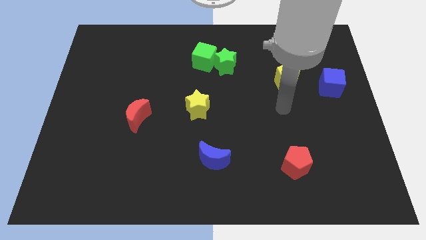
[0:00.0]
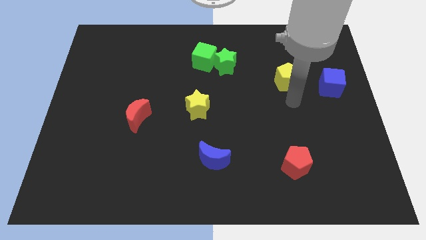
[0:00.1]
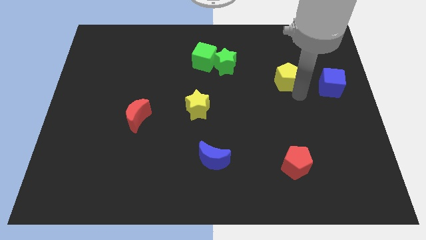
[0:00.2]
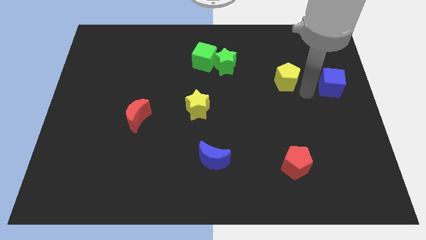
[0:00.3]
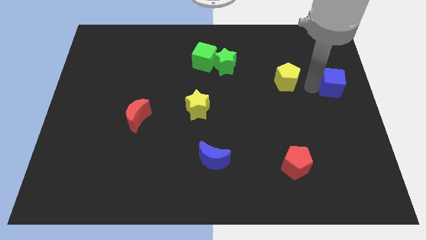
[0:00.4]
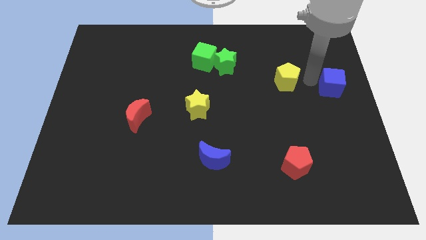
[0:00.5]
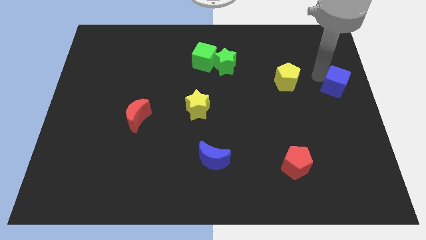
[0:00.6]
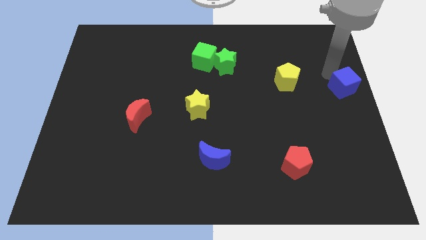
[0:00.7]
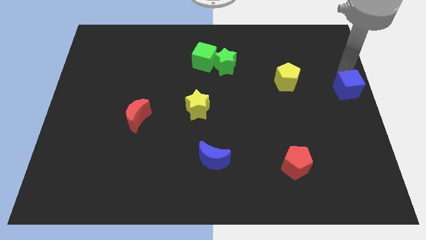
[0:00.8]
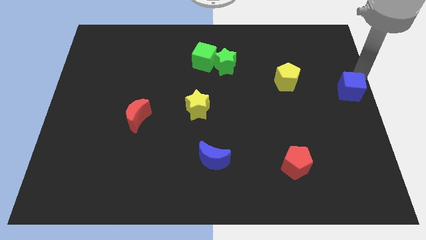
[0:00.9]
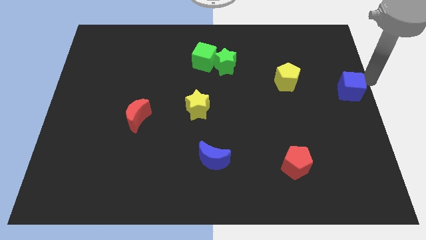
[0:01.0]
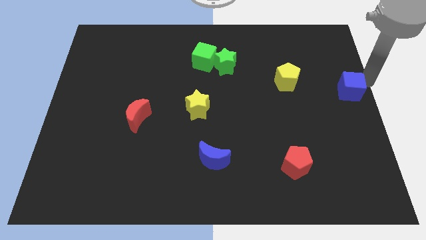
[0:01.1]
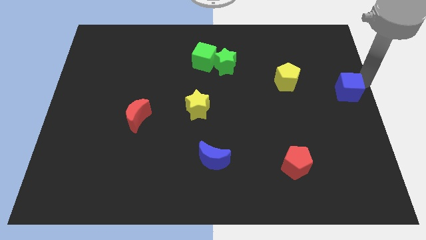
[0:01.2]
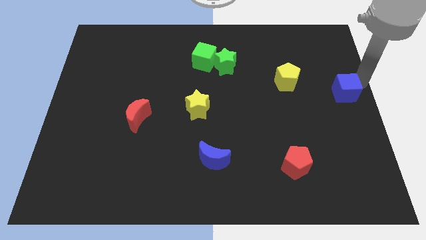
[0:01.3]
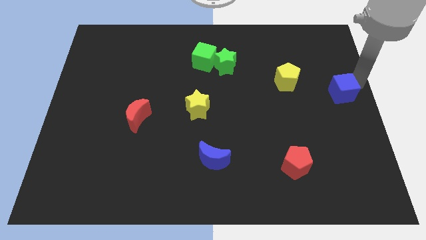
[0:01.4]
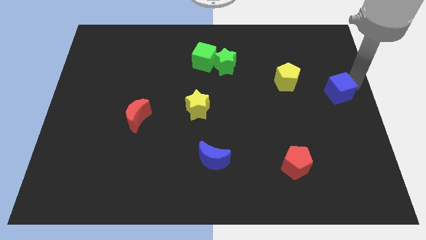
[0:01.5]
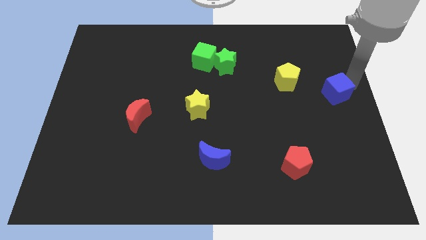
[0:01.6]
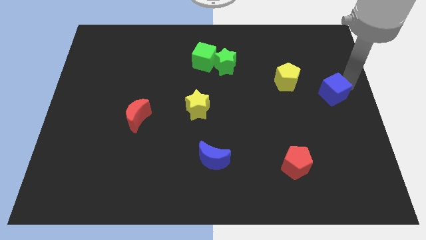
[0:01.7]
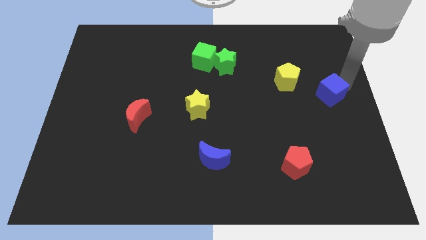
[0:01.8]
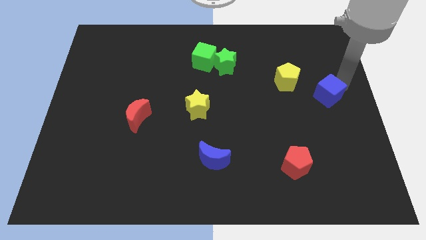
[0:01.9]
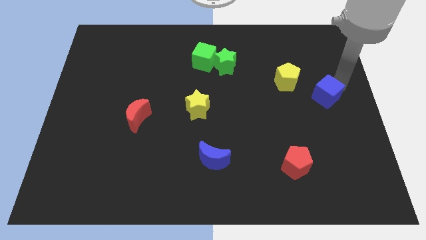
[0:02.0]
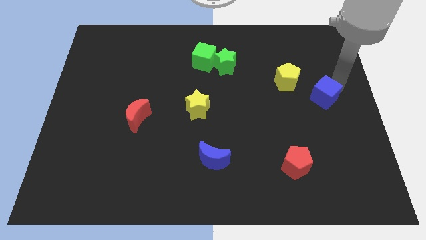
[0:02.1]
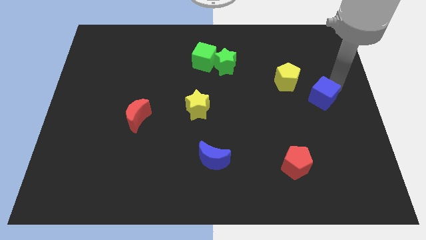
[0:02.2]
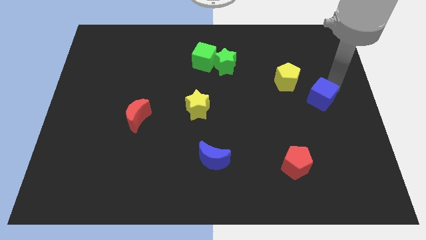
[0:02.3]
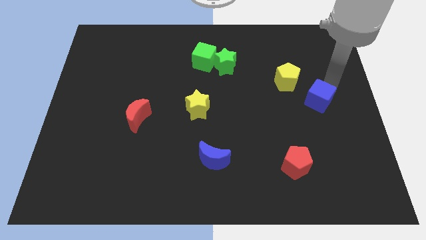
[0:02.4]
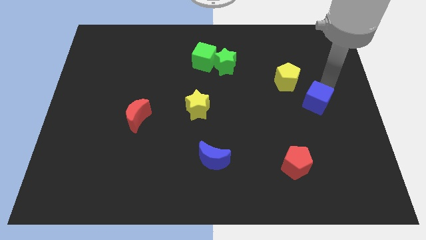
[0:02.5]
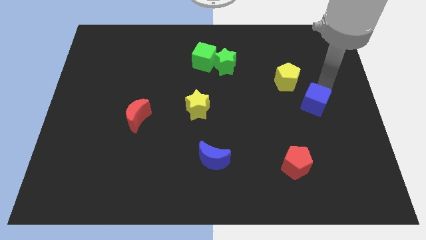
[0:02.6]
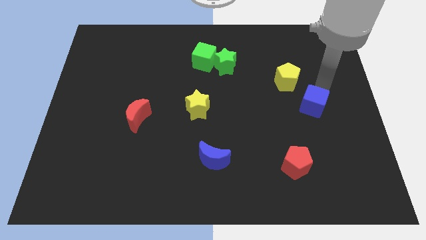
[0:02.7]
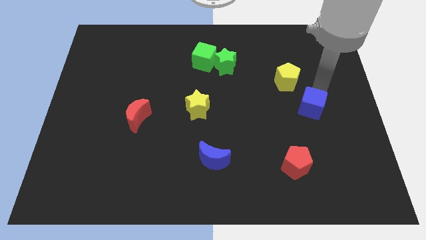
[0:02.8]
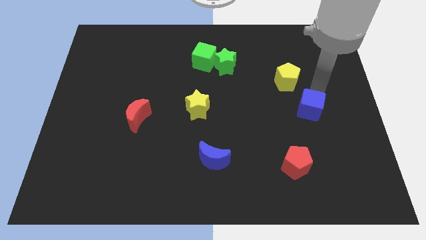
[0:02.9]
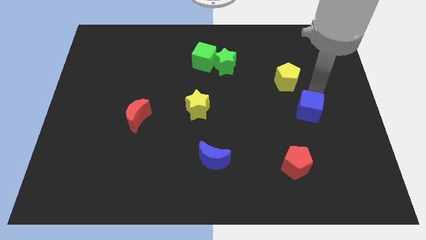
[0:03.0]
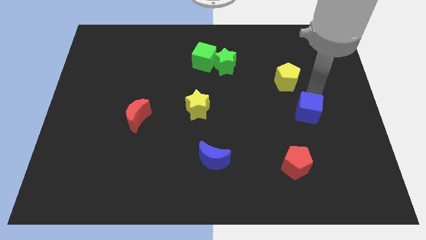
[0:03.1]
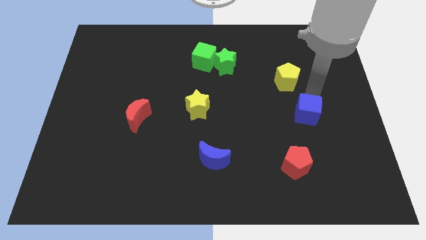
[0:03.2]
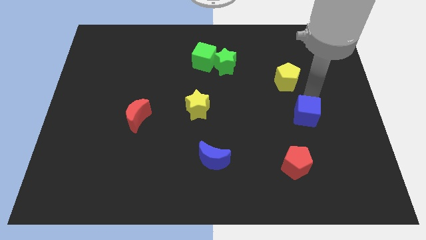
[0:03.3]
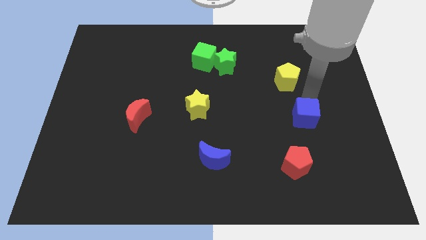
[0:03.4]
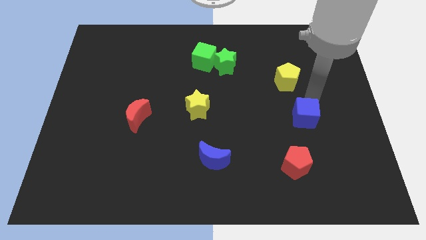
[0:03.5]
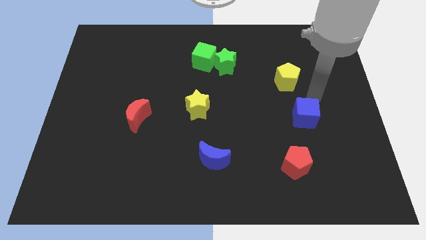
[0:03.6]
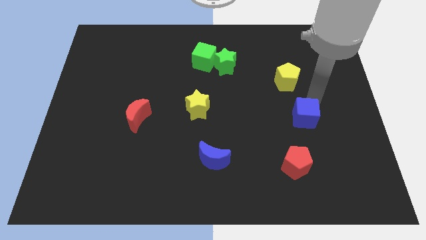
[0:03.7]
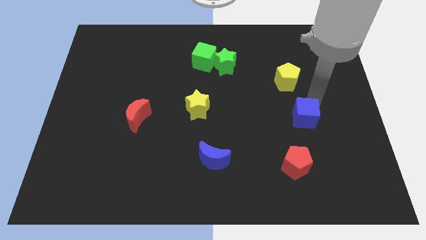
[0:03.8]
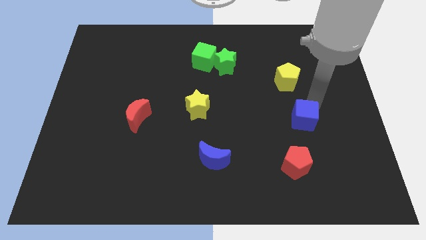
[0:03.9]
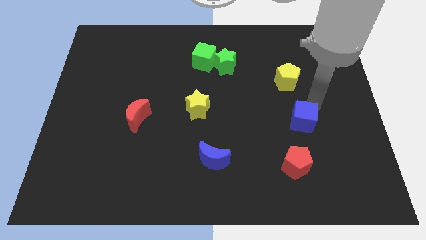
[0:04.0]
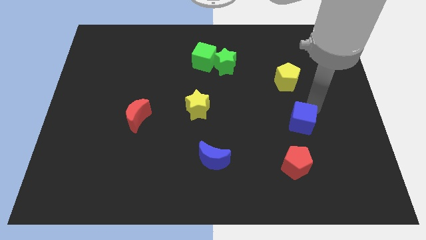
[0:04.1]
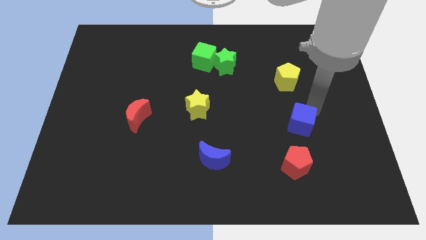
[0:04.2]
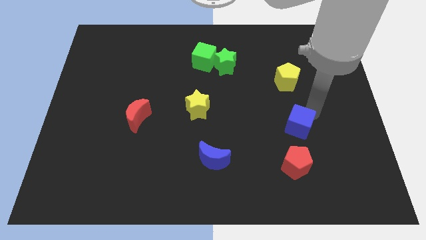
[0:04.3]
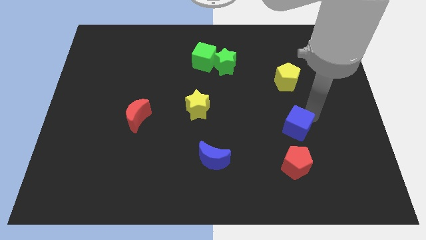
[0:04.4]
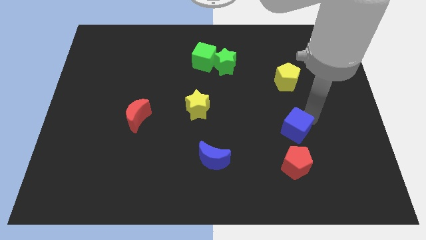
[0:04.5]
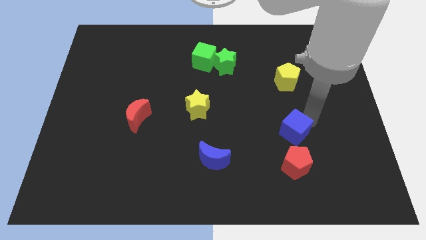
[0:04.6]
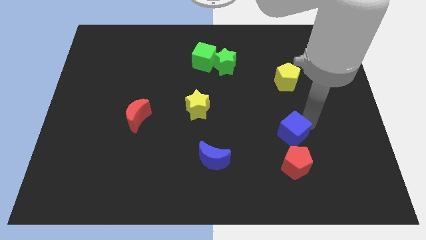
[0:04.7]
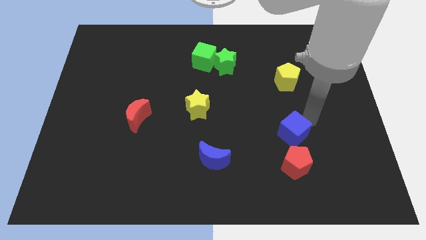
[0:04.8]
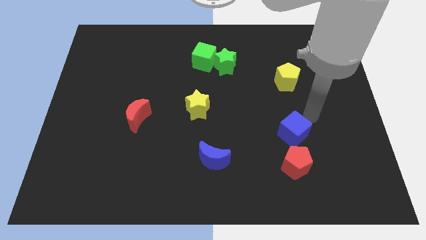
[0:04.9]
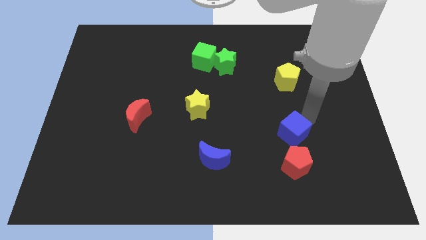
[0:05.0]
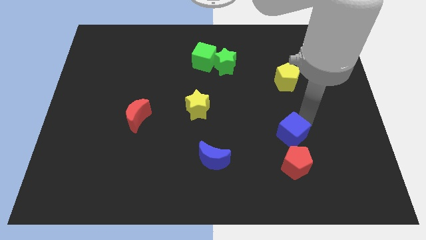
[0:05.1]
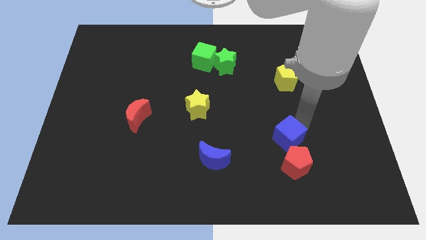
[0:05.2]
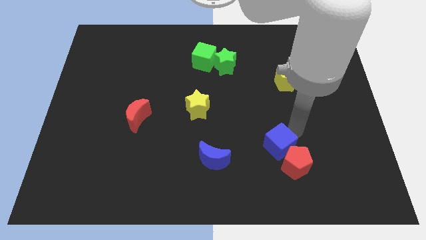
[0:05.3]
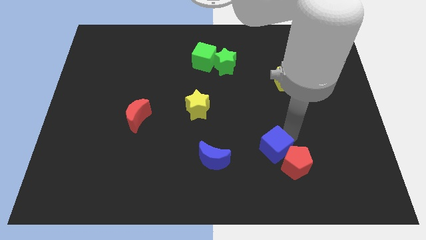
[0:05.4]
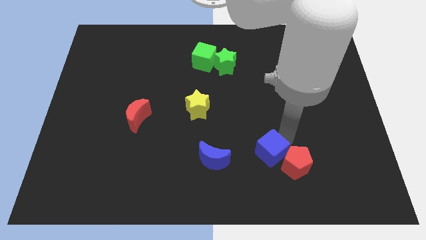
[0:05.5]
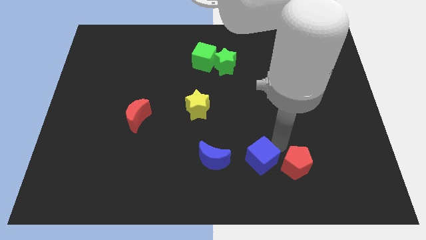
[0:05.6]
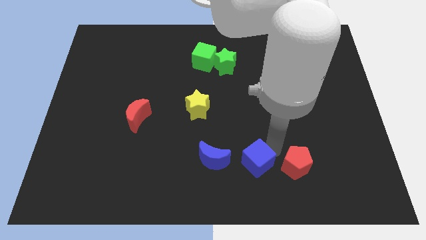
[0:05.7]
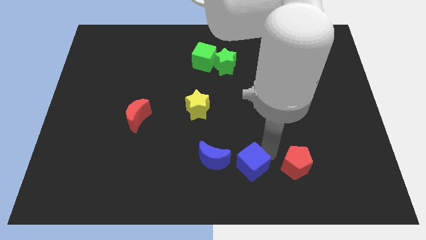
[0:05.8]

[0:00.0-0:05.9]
slide the blue cube to the bottom side

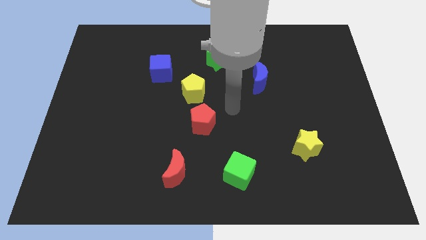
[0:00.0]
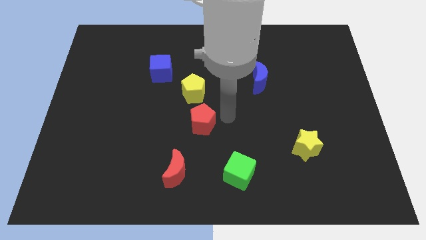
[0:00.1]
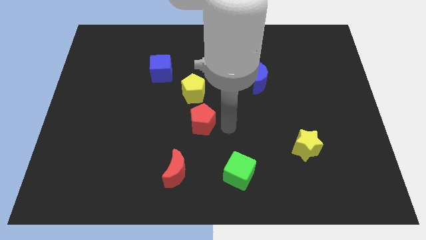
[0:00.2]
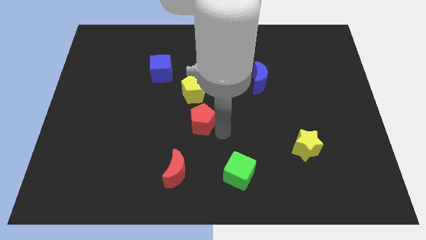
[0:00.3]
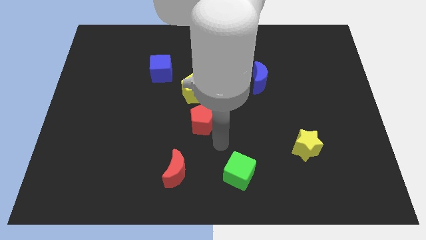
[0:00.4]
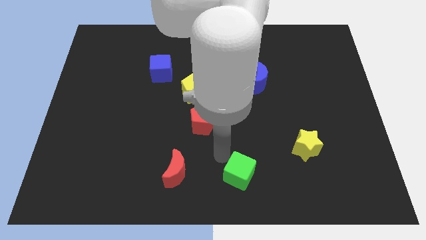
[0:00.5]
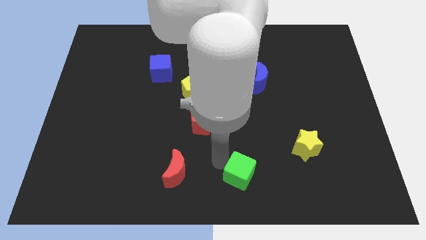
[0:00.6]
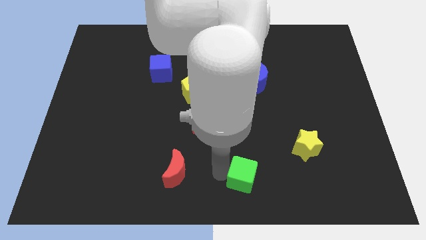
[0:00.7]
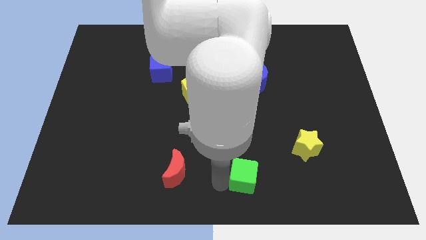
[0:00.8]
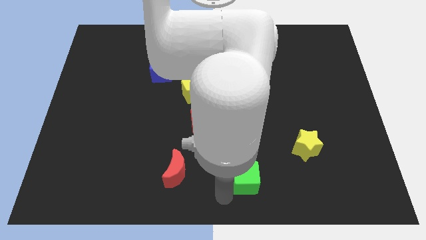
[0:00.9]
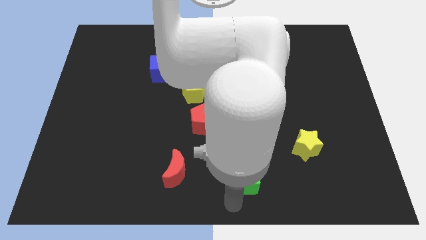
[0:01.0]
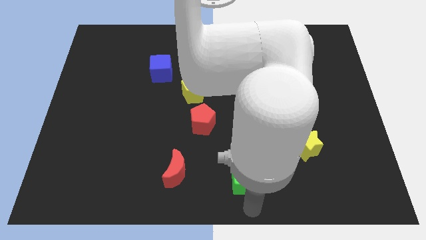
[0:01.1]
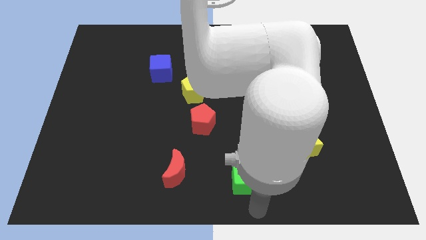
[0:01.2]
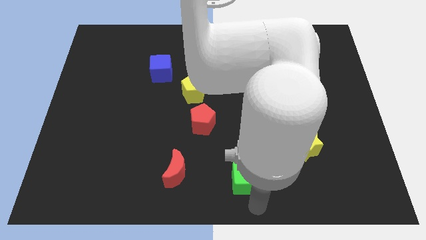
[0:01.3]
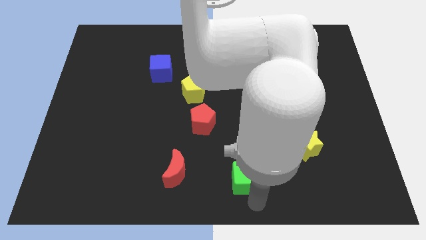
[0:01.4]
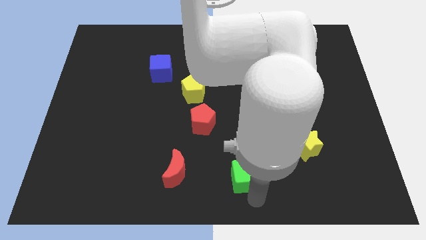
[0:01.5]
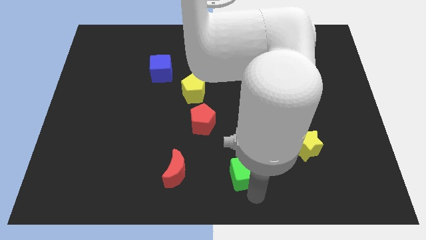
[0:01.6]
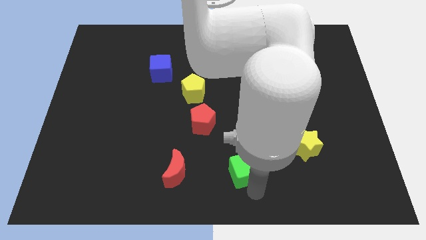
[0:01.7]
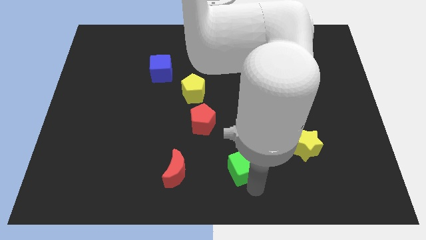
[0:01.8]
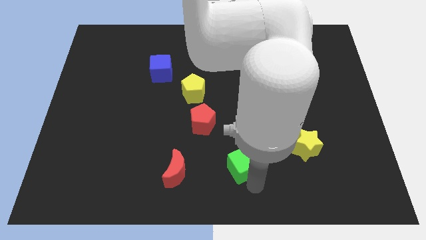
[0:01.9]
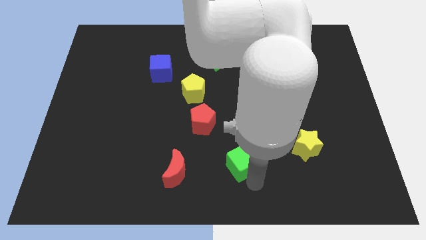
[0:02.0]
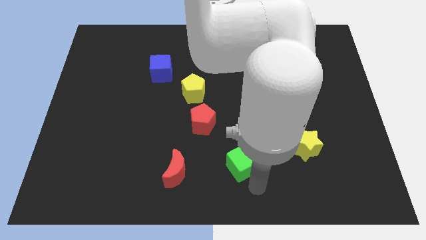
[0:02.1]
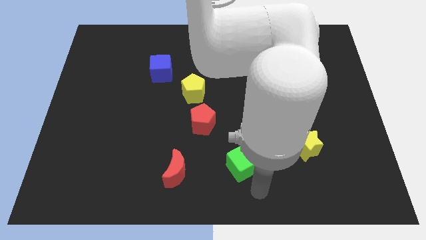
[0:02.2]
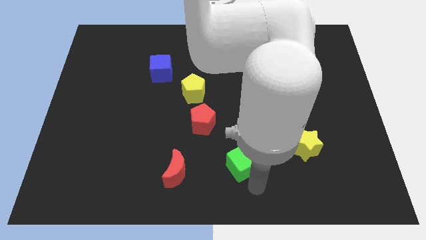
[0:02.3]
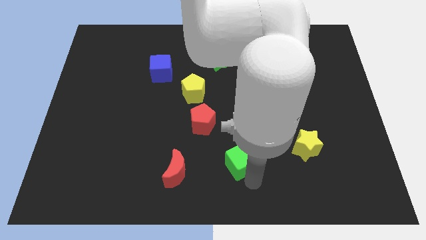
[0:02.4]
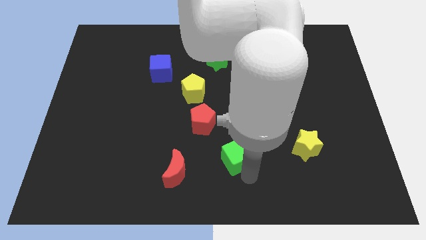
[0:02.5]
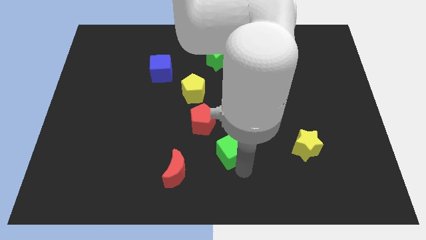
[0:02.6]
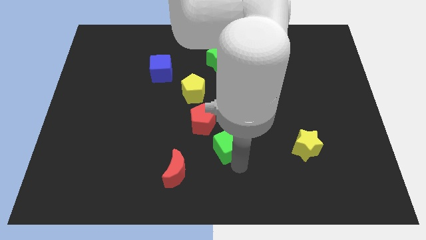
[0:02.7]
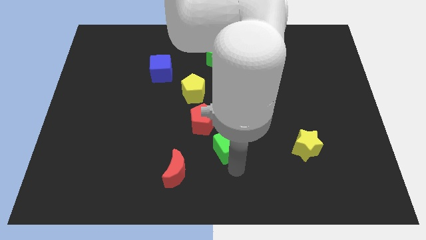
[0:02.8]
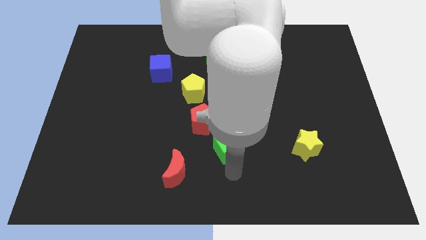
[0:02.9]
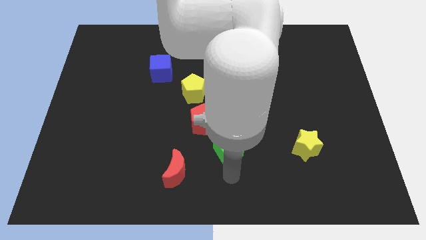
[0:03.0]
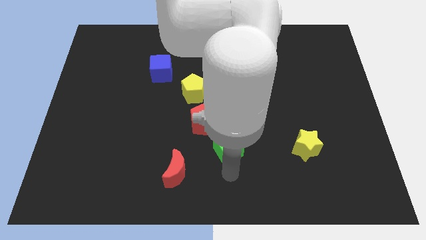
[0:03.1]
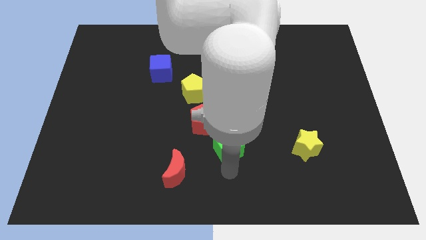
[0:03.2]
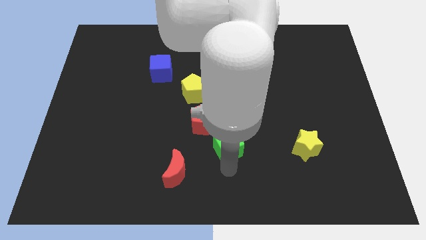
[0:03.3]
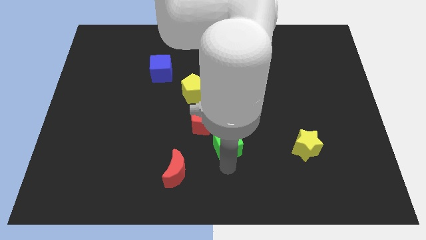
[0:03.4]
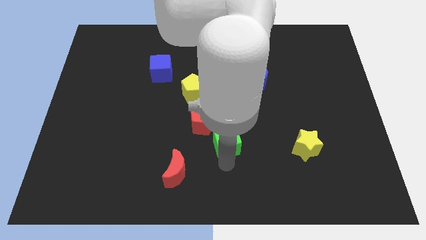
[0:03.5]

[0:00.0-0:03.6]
push the green cube to the middle of the board
